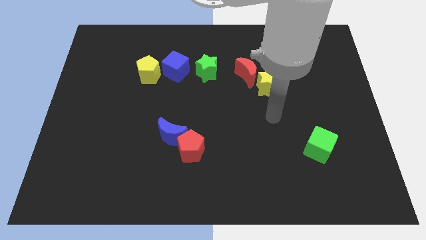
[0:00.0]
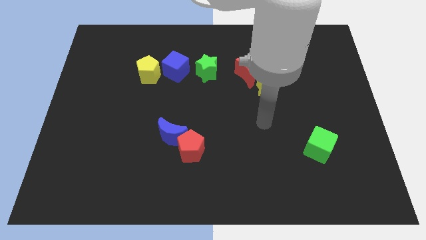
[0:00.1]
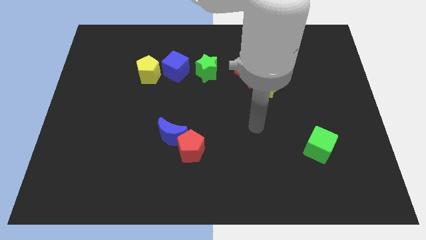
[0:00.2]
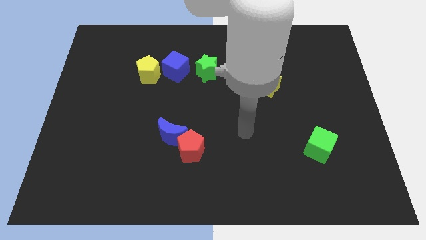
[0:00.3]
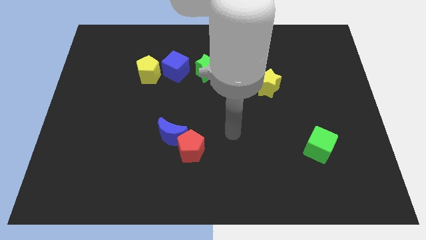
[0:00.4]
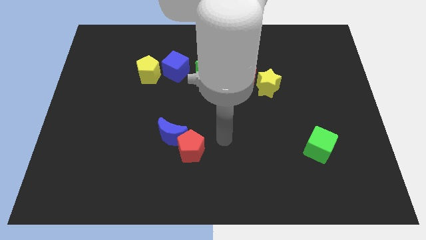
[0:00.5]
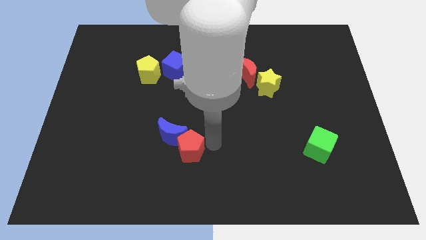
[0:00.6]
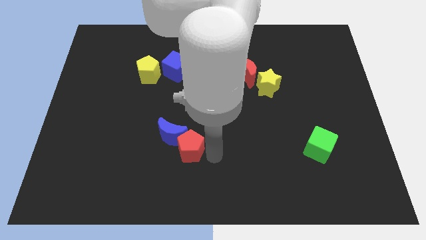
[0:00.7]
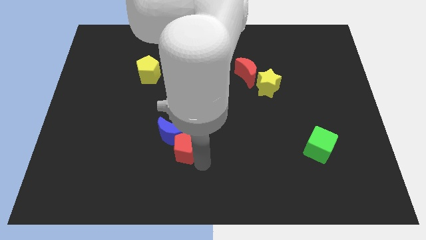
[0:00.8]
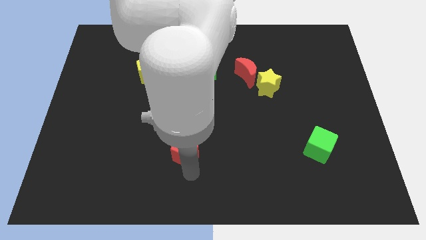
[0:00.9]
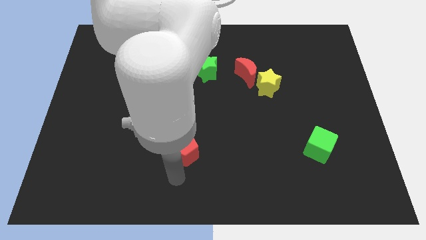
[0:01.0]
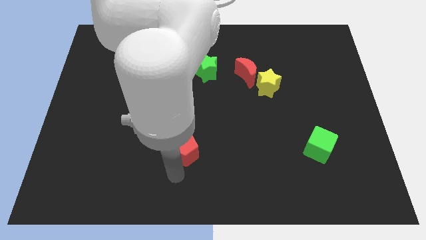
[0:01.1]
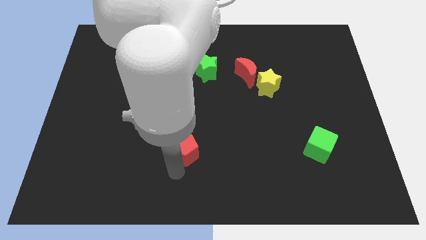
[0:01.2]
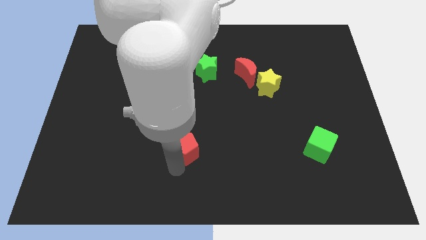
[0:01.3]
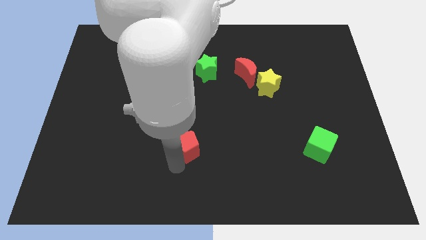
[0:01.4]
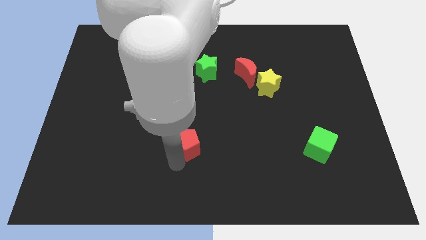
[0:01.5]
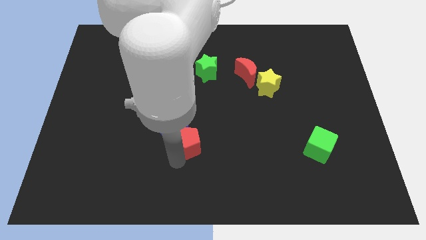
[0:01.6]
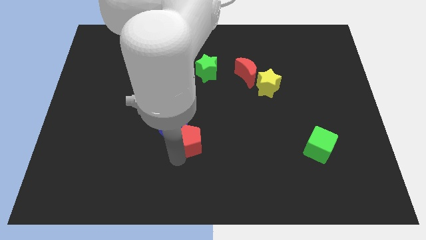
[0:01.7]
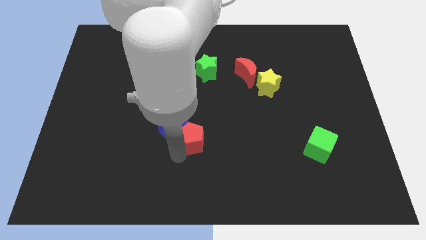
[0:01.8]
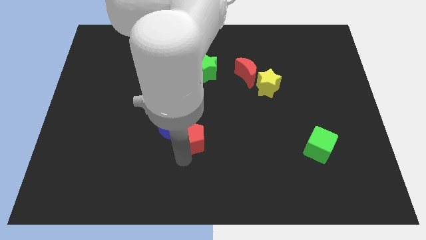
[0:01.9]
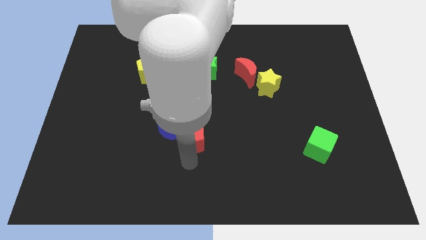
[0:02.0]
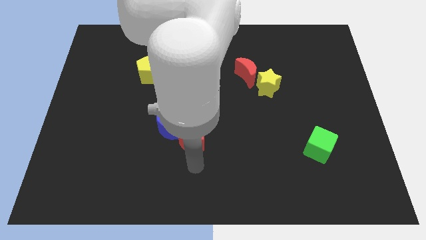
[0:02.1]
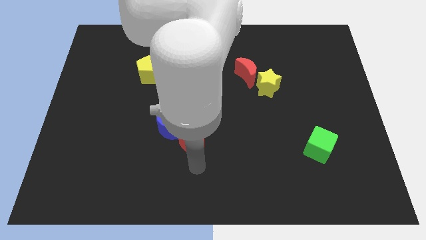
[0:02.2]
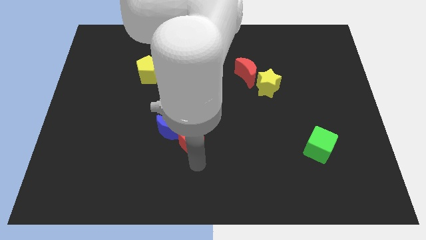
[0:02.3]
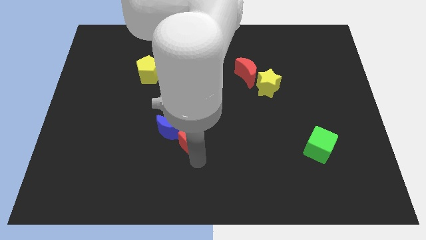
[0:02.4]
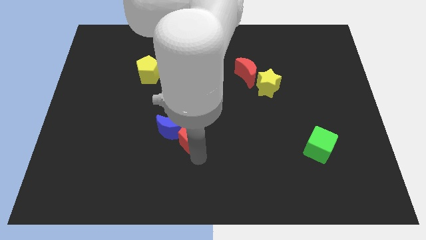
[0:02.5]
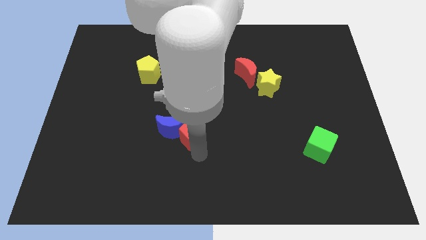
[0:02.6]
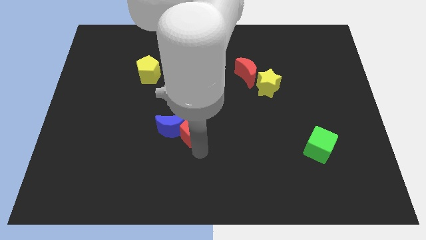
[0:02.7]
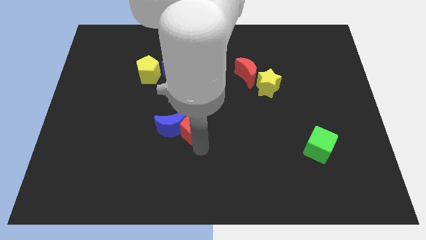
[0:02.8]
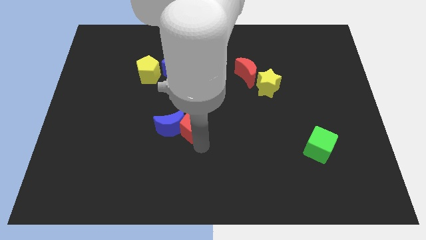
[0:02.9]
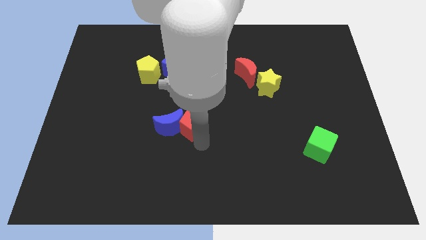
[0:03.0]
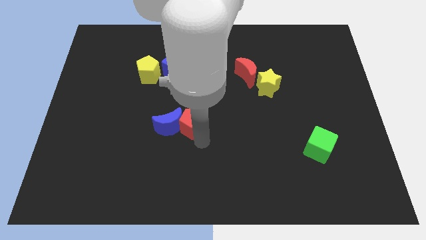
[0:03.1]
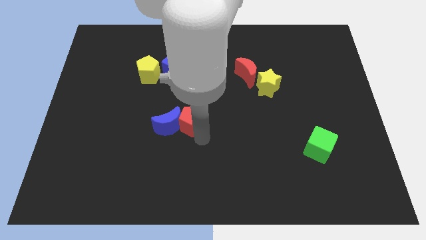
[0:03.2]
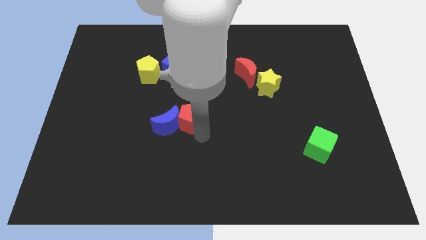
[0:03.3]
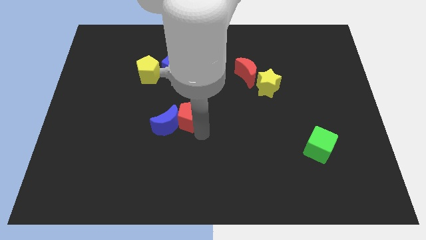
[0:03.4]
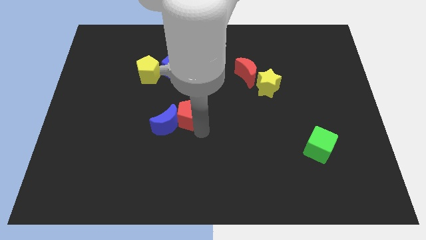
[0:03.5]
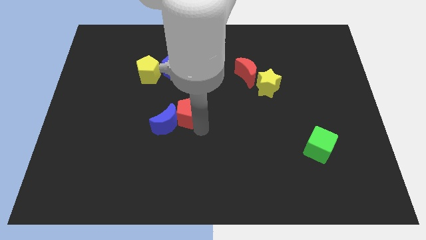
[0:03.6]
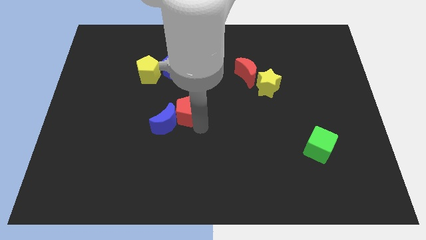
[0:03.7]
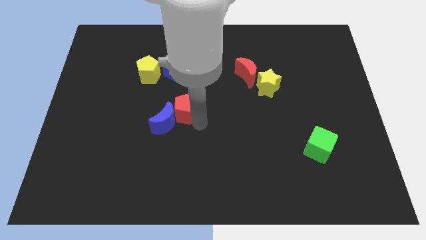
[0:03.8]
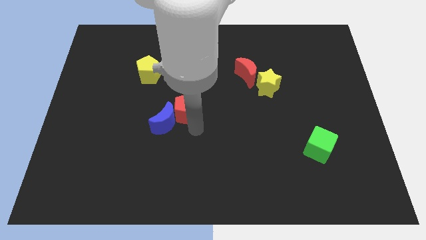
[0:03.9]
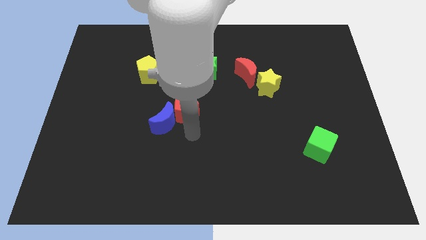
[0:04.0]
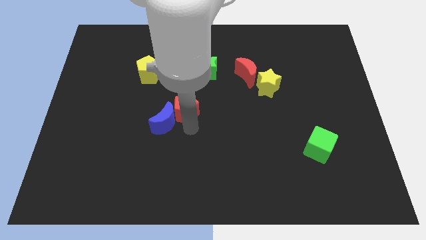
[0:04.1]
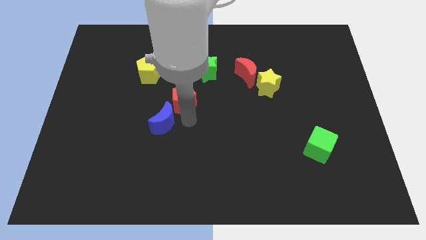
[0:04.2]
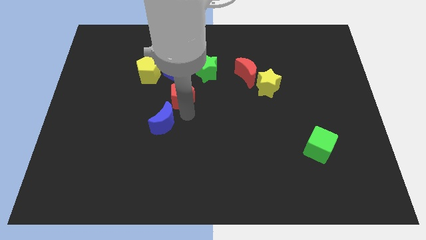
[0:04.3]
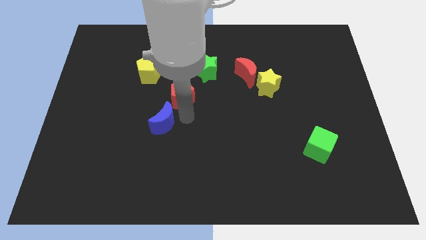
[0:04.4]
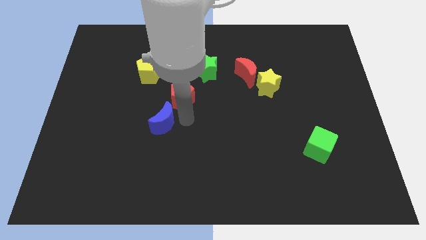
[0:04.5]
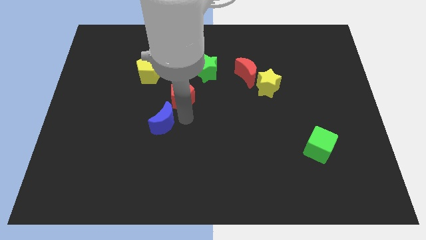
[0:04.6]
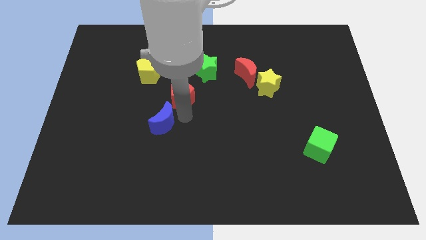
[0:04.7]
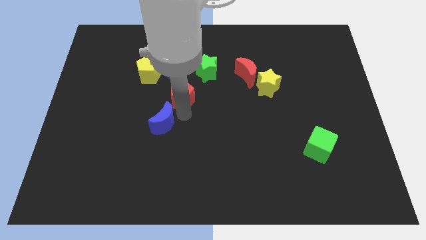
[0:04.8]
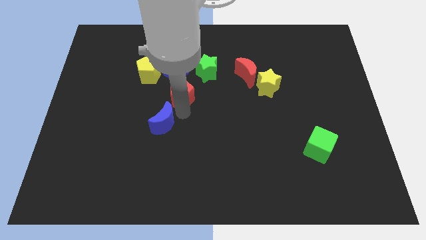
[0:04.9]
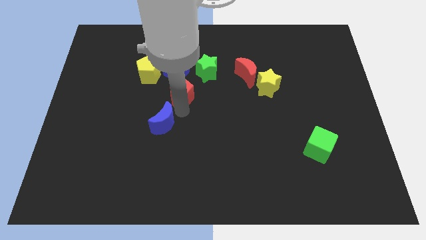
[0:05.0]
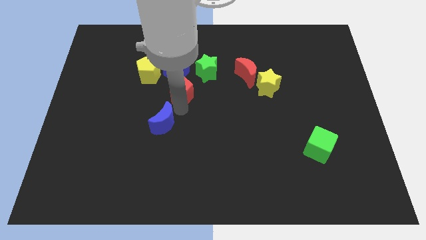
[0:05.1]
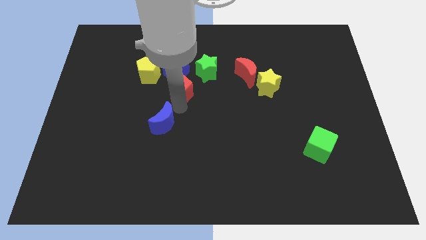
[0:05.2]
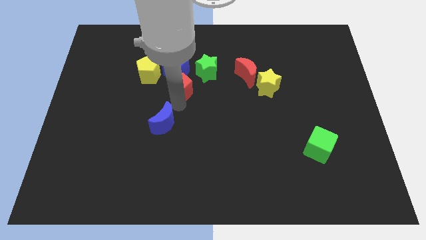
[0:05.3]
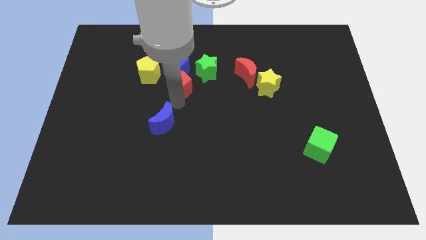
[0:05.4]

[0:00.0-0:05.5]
put the red pentagon close to the blue cube

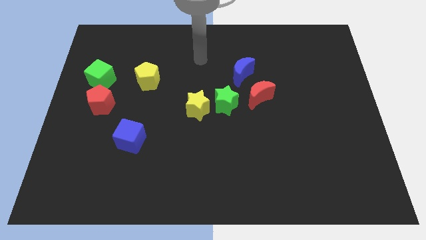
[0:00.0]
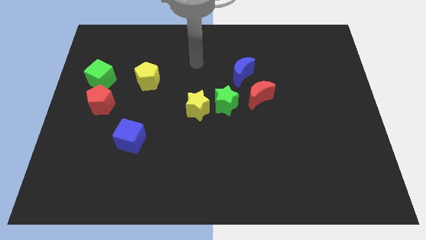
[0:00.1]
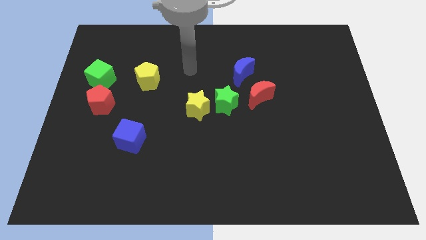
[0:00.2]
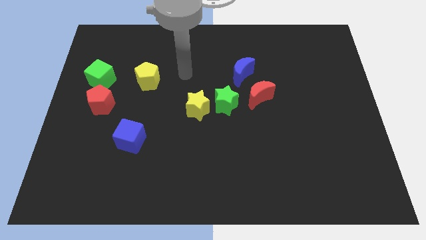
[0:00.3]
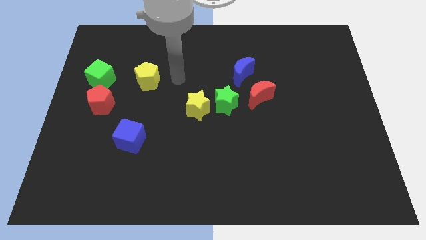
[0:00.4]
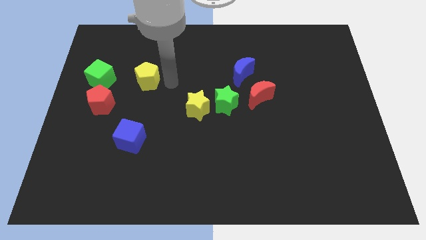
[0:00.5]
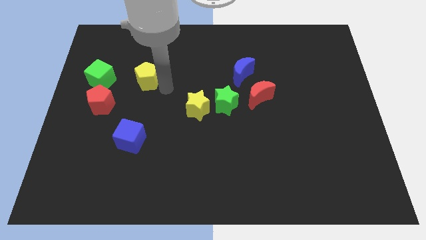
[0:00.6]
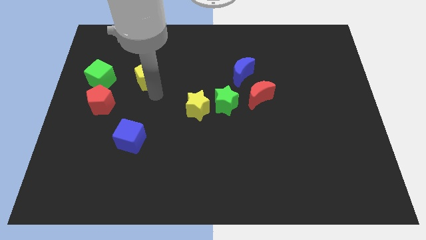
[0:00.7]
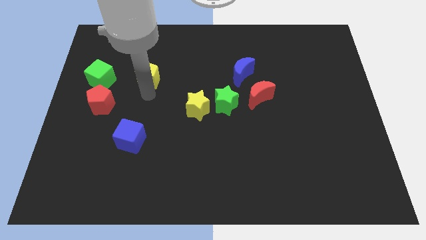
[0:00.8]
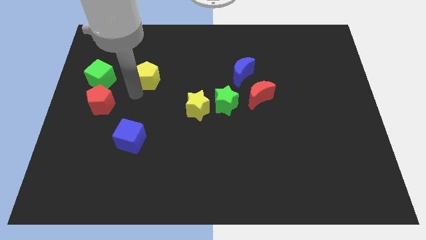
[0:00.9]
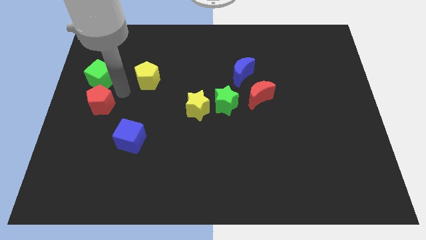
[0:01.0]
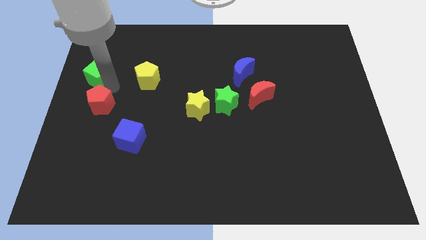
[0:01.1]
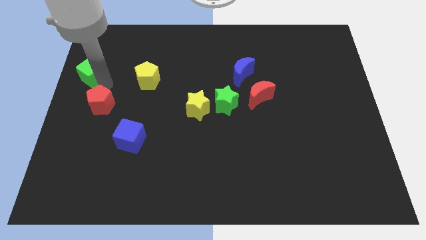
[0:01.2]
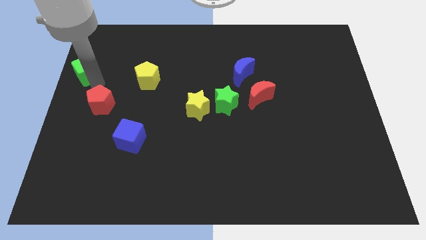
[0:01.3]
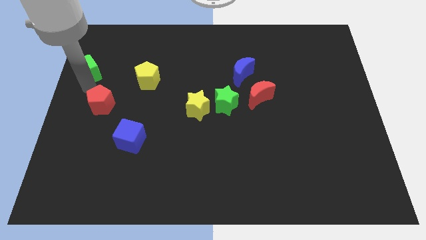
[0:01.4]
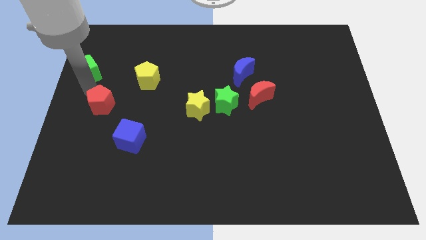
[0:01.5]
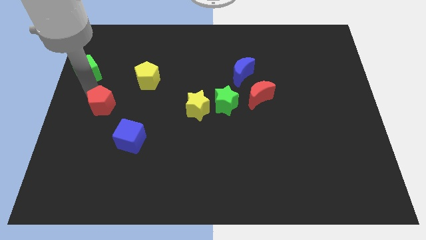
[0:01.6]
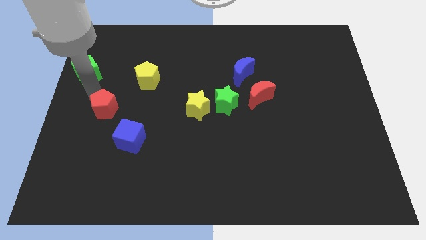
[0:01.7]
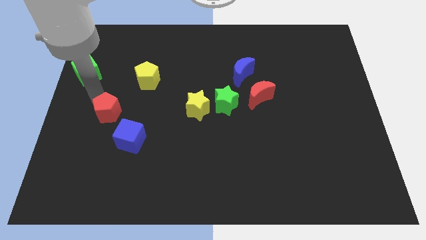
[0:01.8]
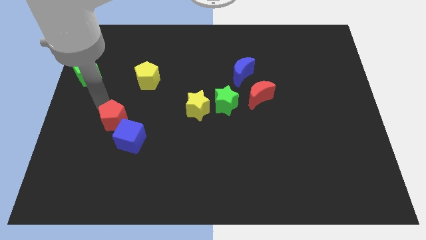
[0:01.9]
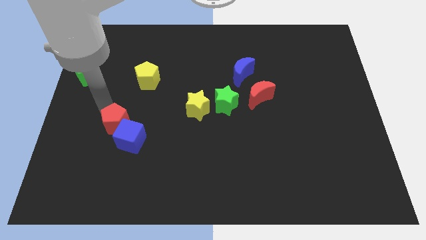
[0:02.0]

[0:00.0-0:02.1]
slide the red pentagon next to the blue cube
